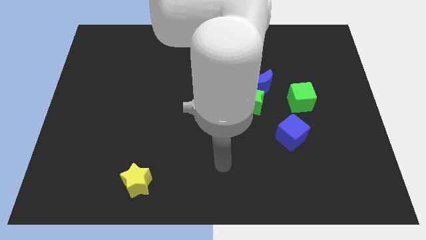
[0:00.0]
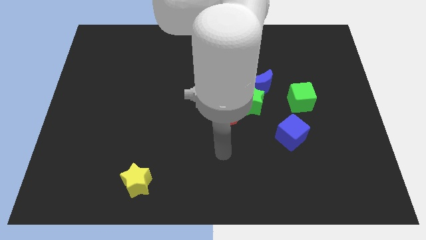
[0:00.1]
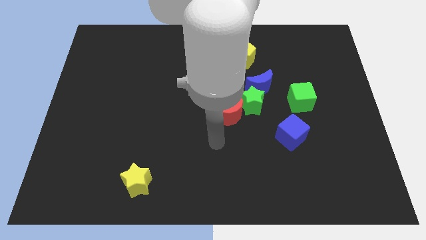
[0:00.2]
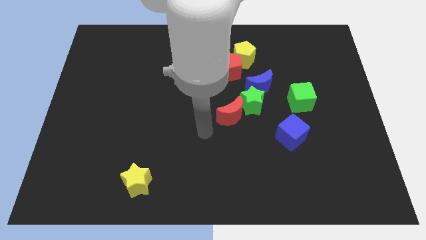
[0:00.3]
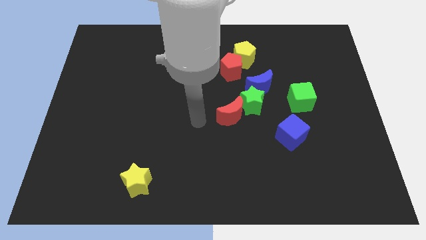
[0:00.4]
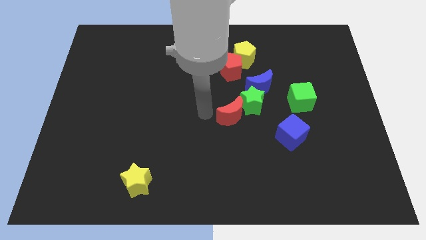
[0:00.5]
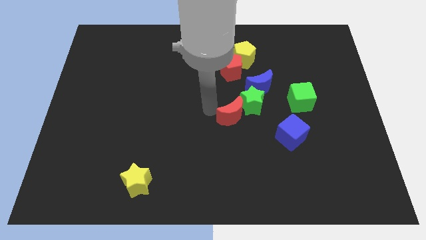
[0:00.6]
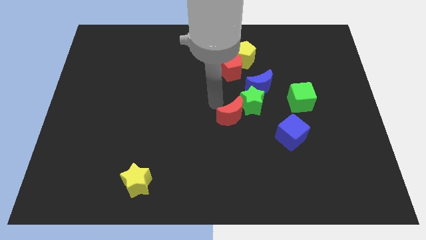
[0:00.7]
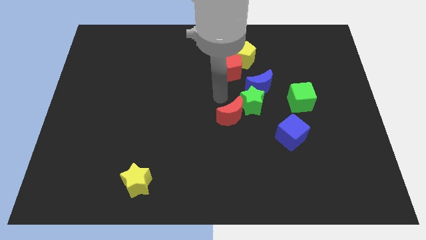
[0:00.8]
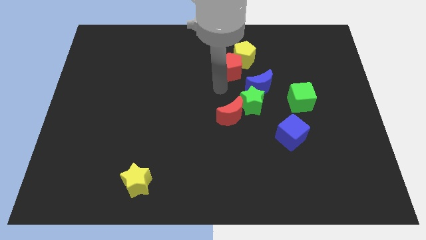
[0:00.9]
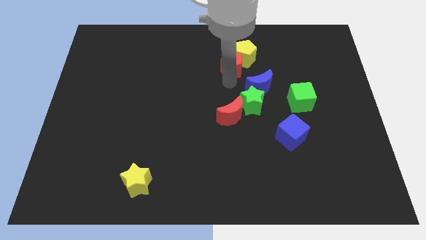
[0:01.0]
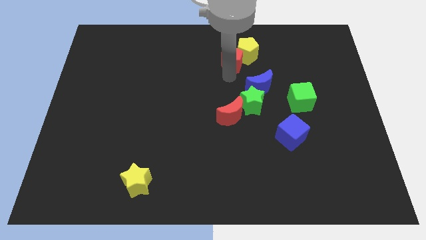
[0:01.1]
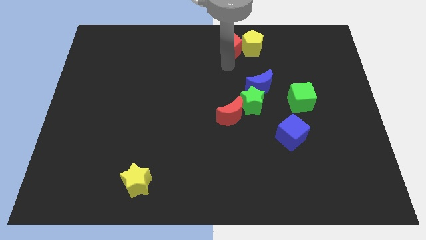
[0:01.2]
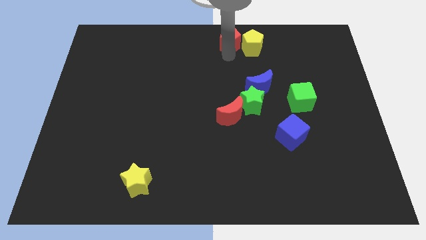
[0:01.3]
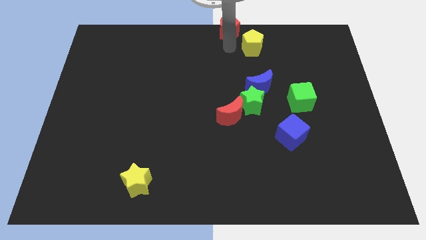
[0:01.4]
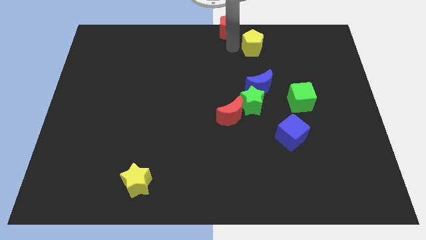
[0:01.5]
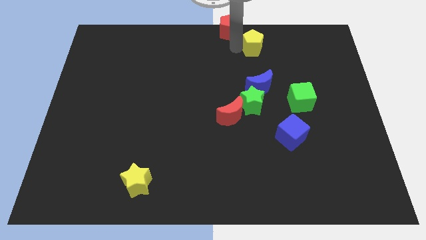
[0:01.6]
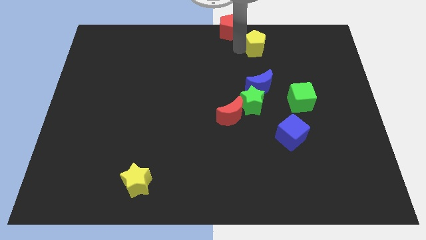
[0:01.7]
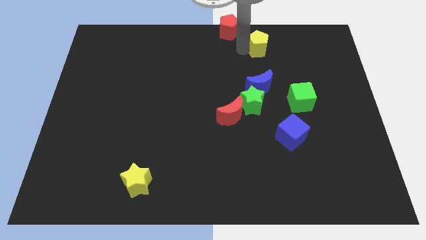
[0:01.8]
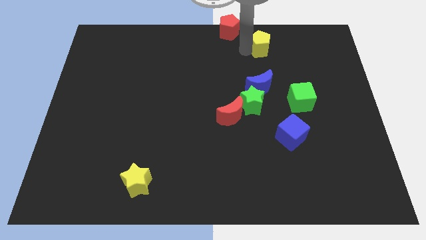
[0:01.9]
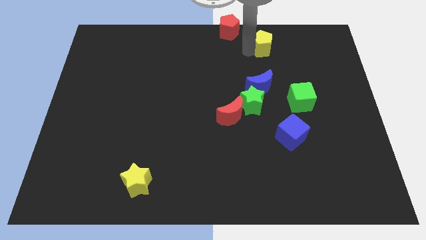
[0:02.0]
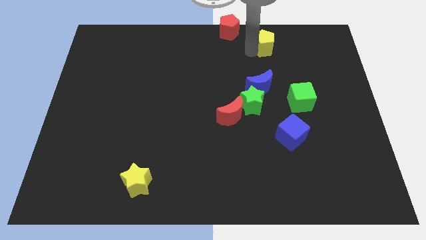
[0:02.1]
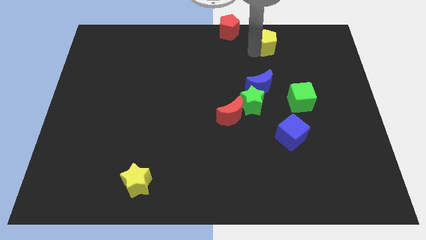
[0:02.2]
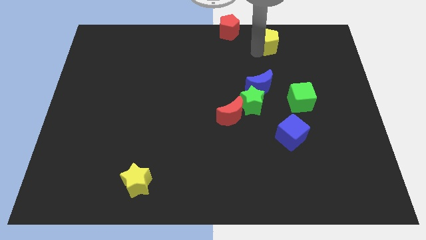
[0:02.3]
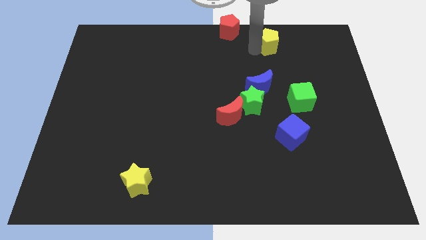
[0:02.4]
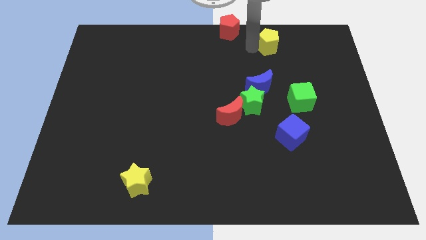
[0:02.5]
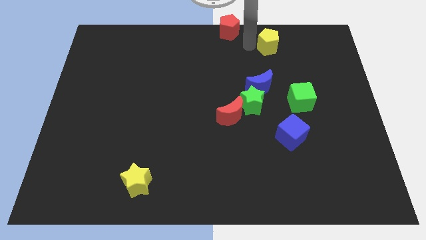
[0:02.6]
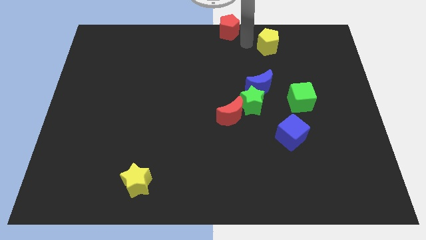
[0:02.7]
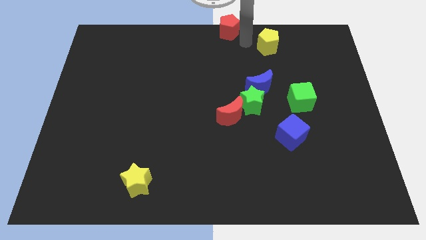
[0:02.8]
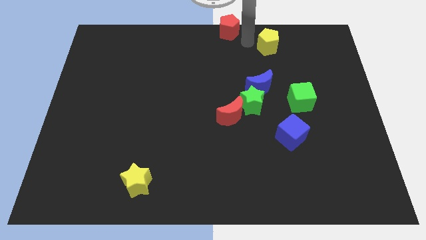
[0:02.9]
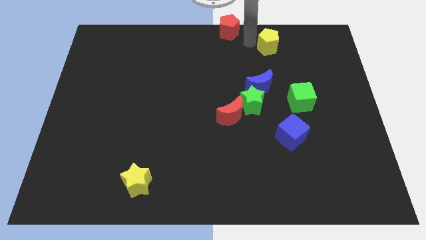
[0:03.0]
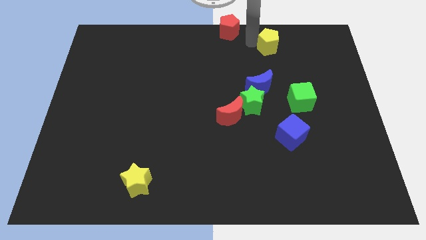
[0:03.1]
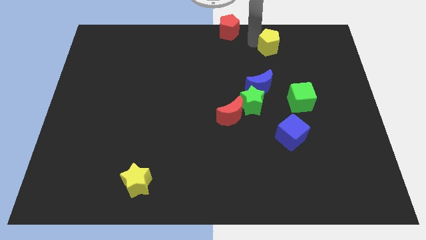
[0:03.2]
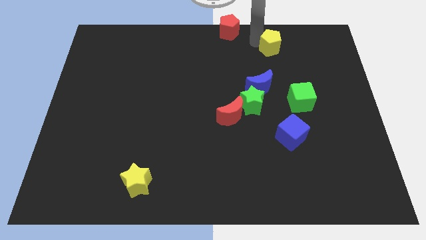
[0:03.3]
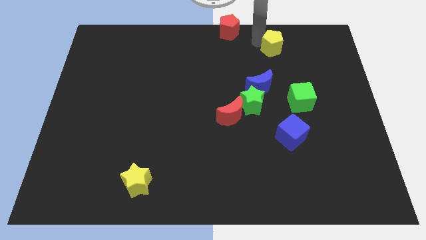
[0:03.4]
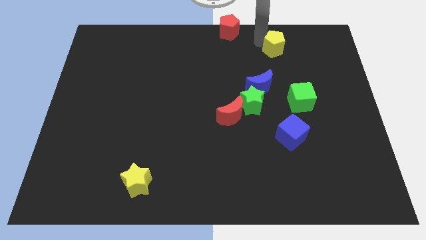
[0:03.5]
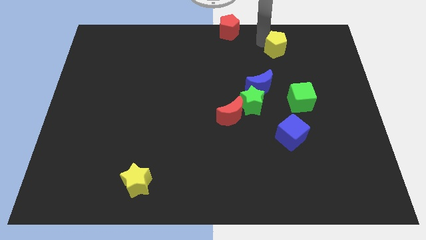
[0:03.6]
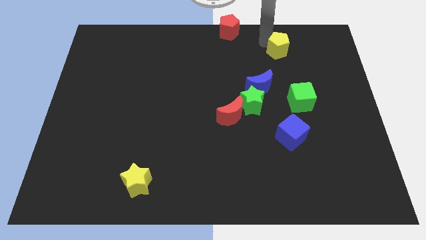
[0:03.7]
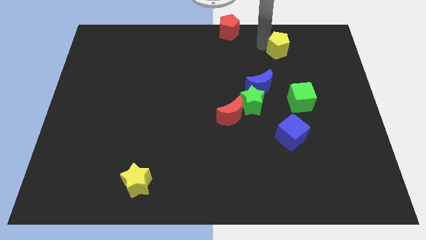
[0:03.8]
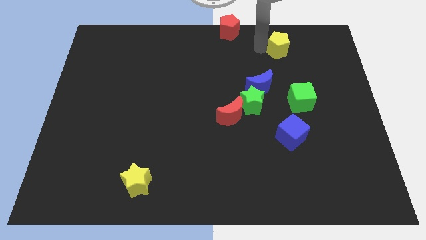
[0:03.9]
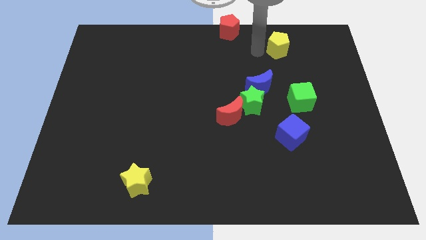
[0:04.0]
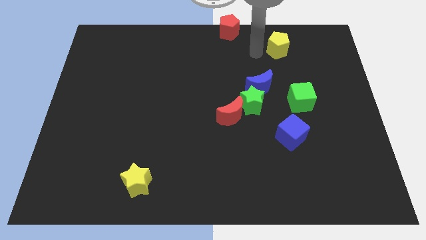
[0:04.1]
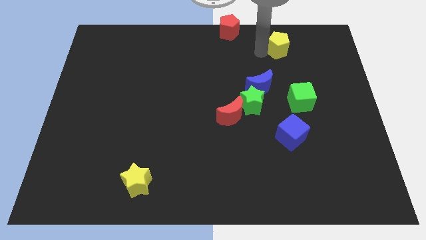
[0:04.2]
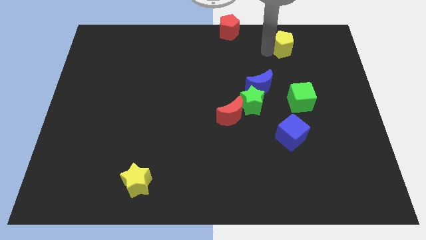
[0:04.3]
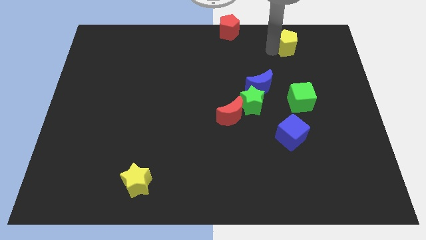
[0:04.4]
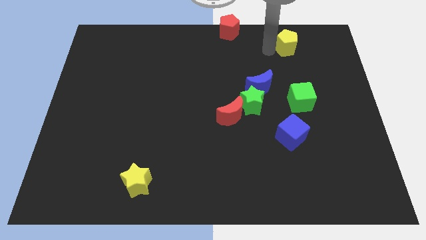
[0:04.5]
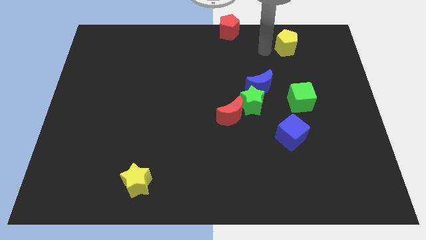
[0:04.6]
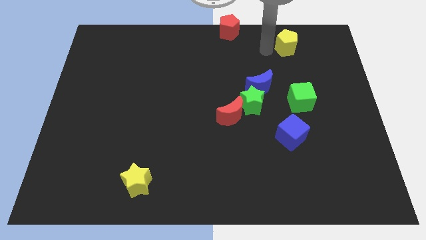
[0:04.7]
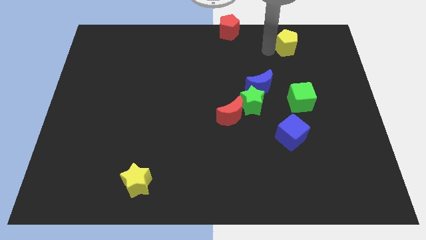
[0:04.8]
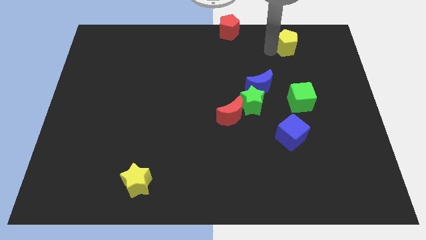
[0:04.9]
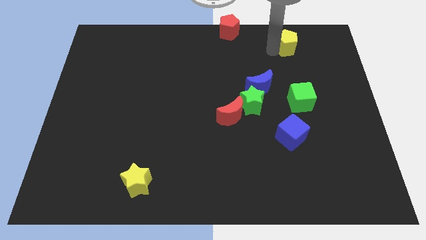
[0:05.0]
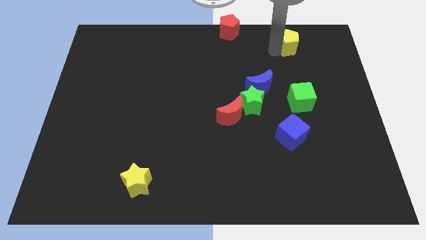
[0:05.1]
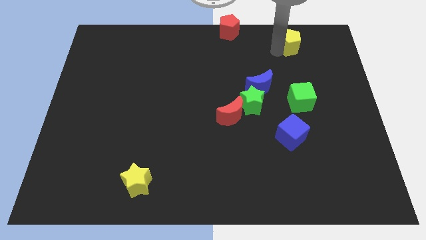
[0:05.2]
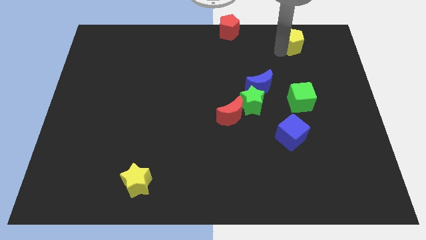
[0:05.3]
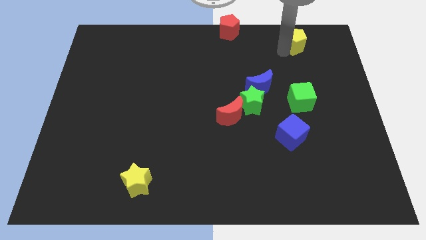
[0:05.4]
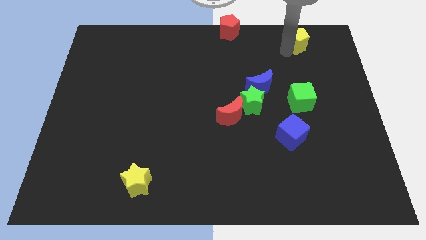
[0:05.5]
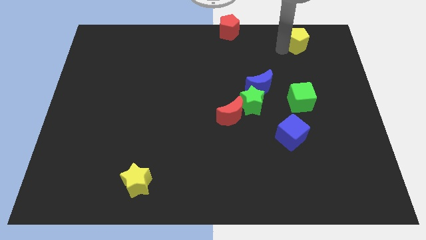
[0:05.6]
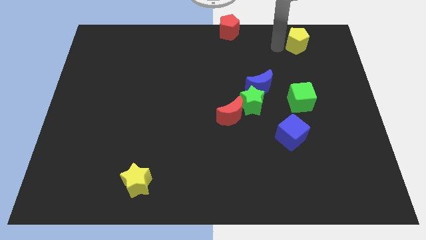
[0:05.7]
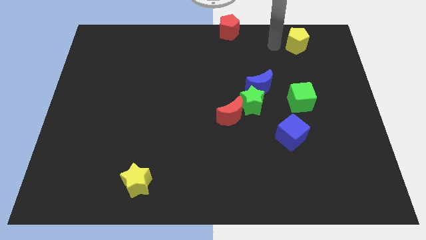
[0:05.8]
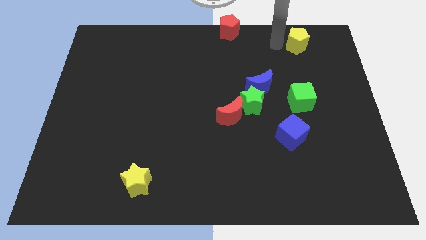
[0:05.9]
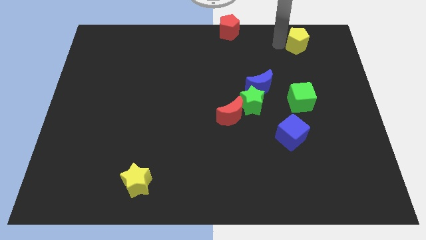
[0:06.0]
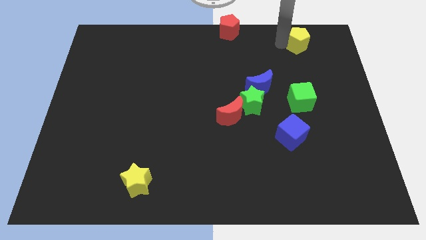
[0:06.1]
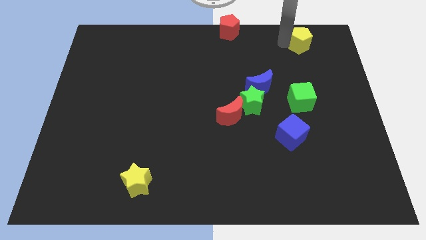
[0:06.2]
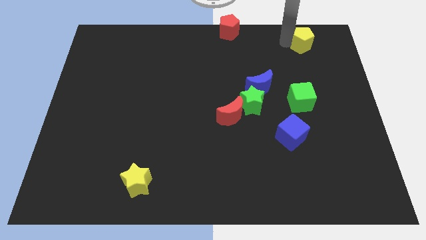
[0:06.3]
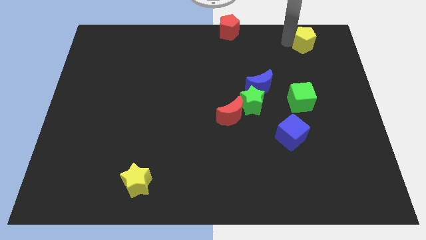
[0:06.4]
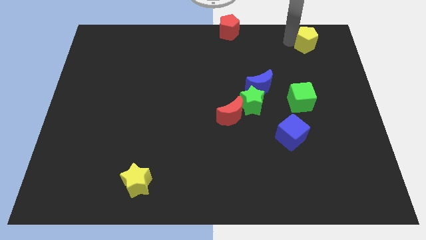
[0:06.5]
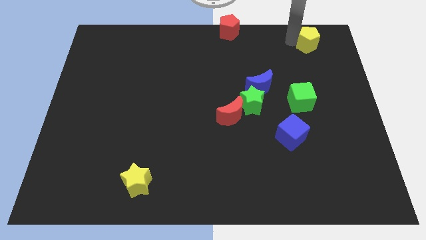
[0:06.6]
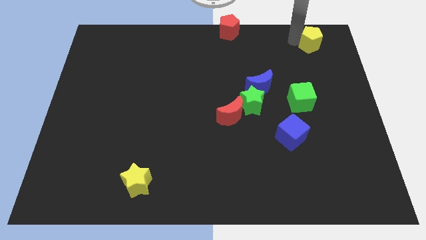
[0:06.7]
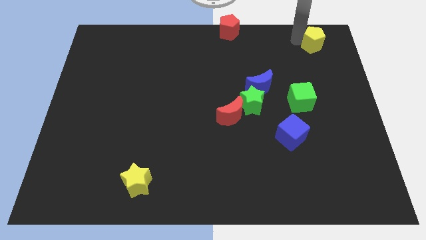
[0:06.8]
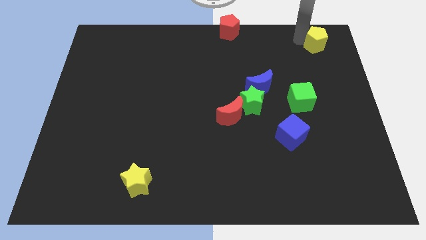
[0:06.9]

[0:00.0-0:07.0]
slide the yellow pentagon to the upper right corner
